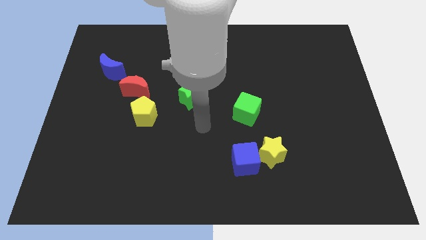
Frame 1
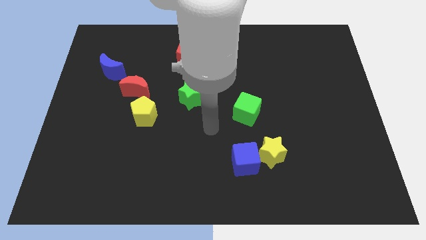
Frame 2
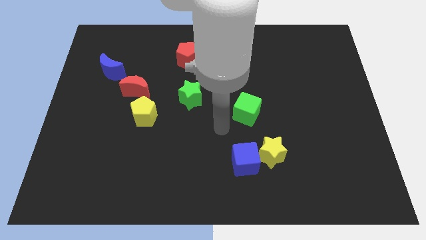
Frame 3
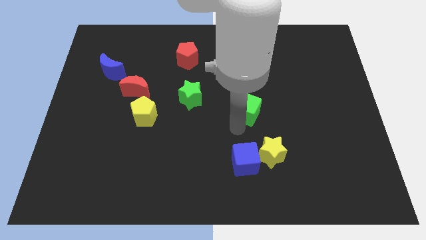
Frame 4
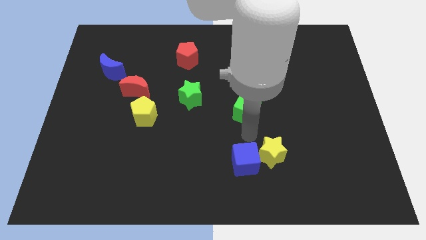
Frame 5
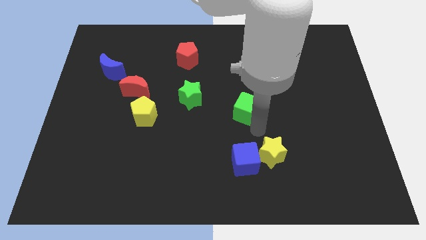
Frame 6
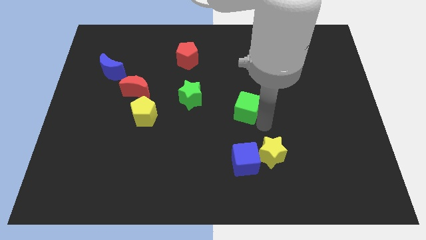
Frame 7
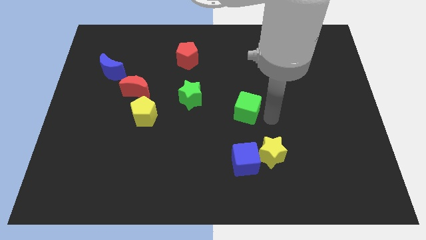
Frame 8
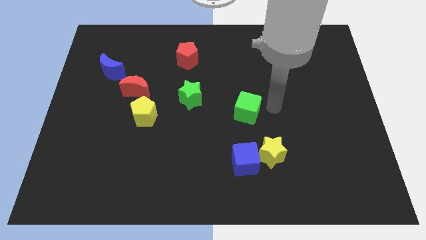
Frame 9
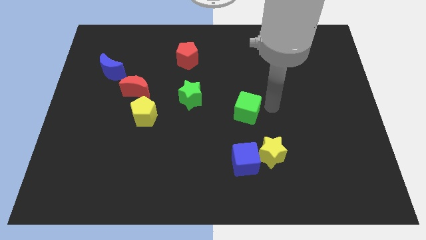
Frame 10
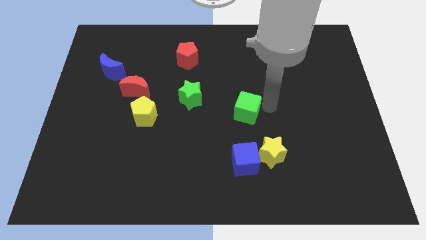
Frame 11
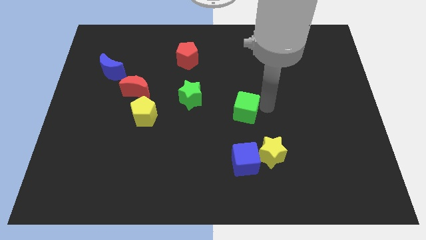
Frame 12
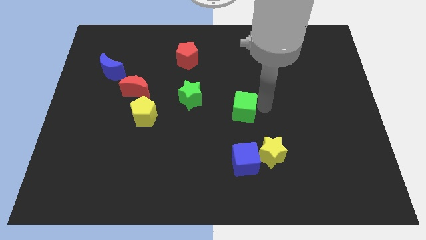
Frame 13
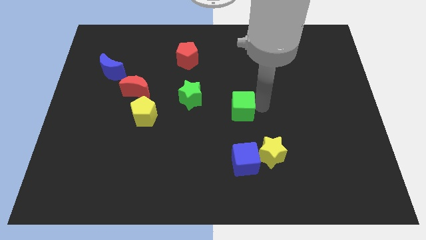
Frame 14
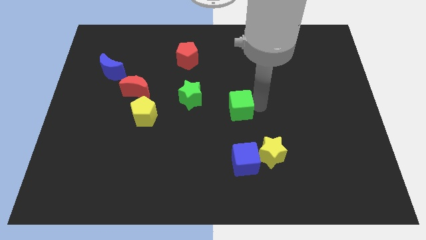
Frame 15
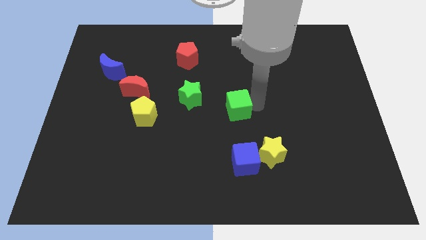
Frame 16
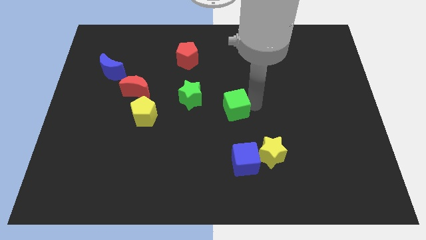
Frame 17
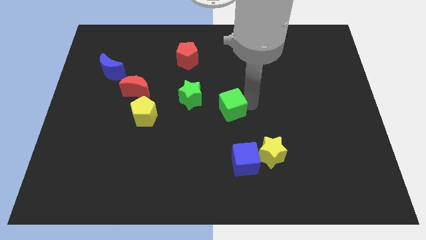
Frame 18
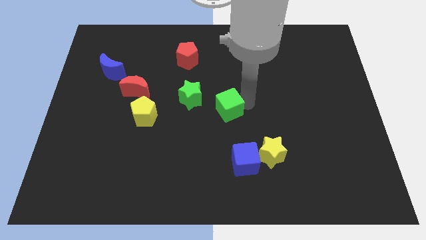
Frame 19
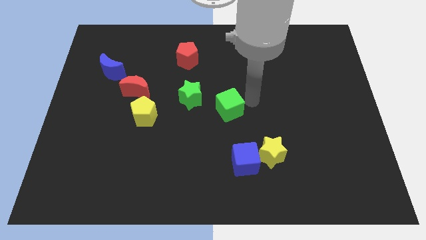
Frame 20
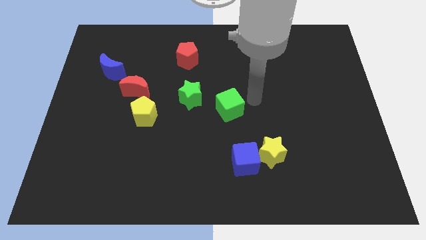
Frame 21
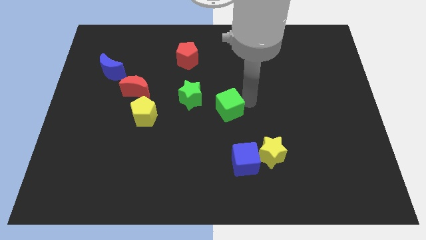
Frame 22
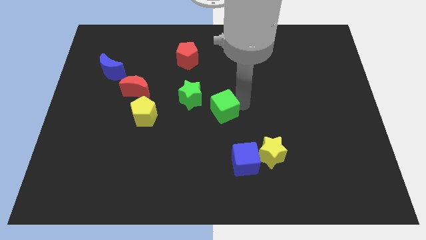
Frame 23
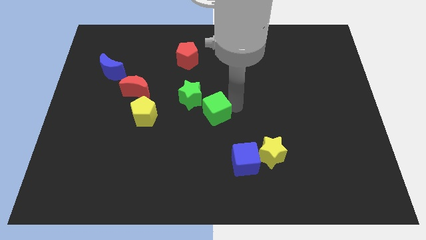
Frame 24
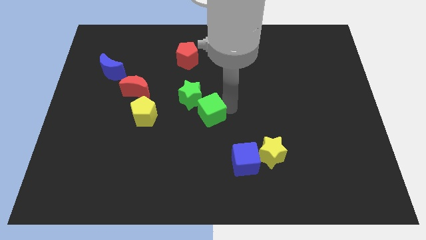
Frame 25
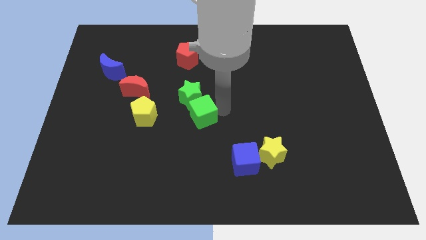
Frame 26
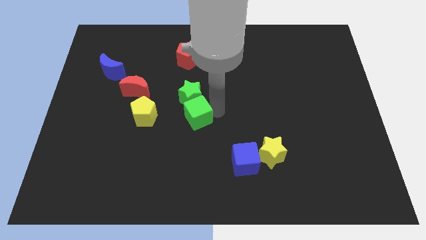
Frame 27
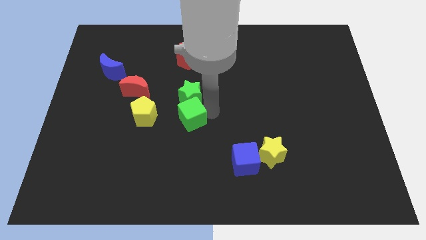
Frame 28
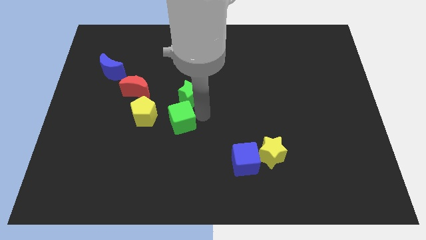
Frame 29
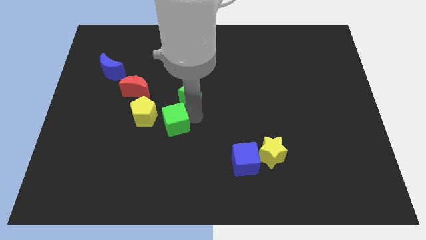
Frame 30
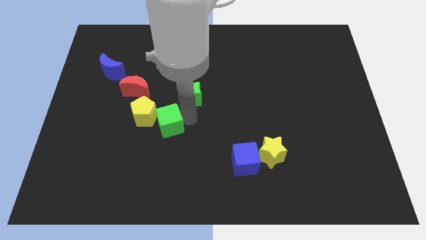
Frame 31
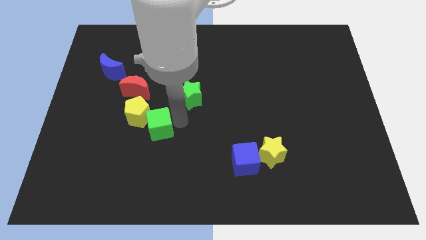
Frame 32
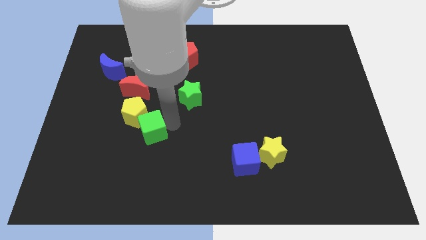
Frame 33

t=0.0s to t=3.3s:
slide the green cube left

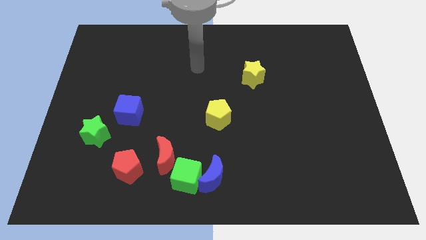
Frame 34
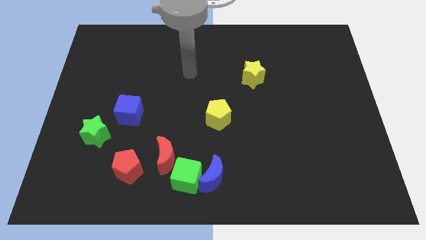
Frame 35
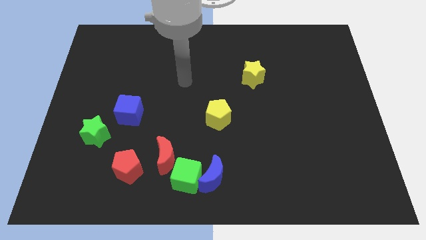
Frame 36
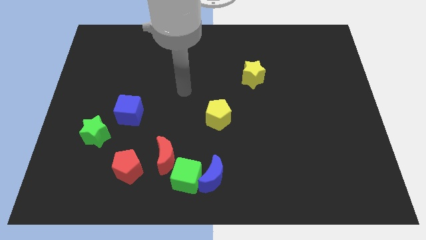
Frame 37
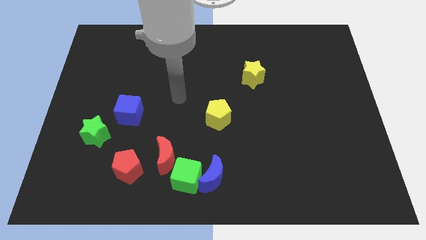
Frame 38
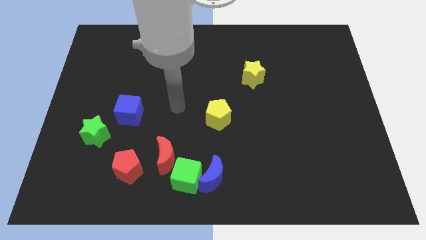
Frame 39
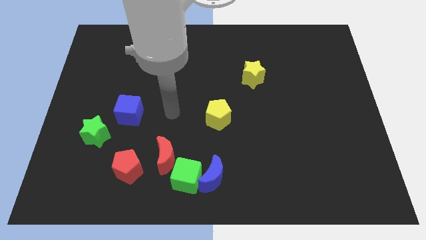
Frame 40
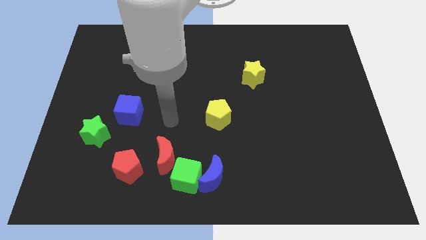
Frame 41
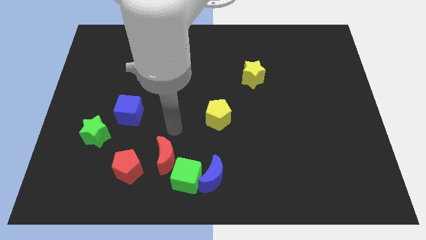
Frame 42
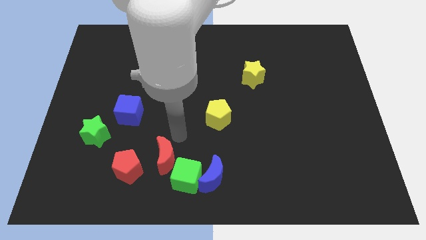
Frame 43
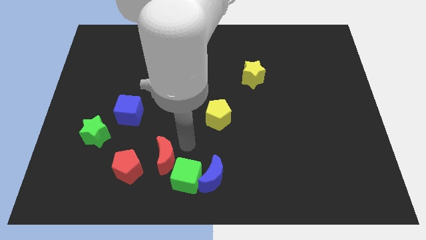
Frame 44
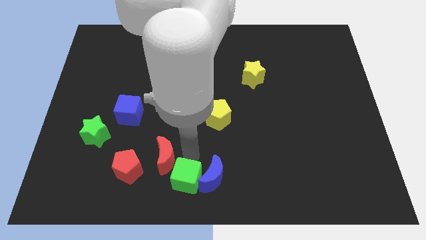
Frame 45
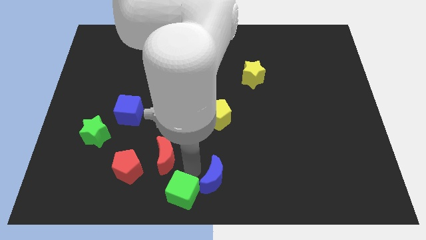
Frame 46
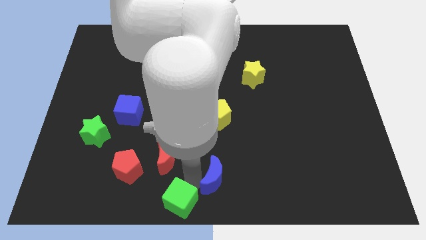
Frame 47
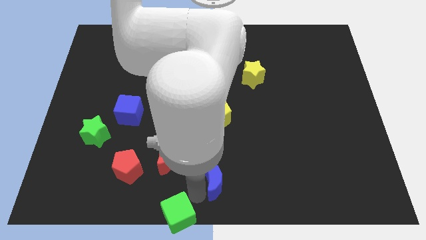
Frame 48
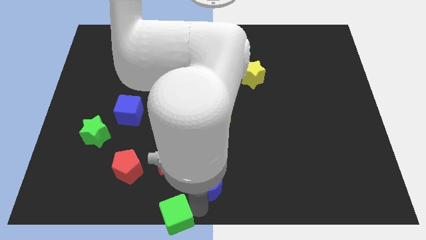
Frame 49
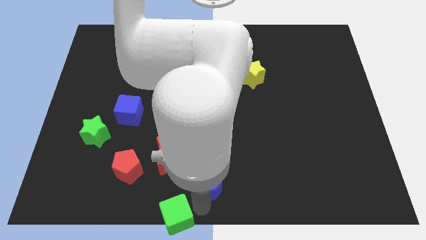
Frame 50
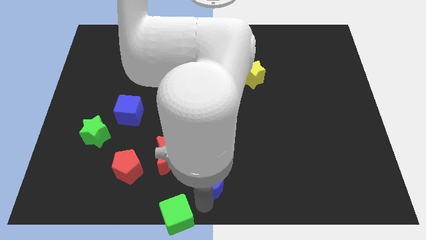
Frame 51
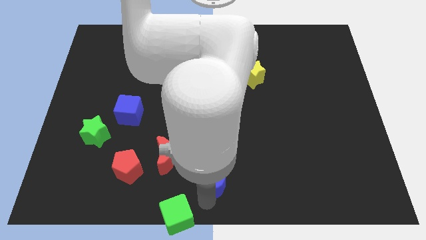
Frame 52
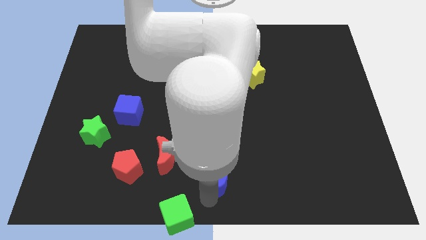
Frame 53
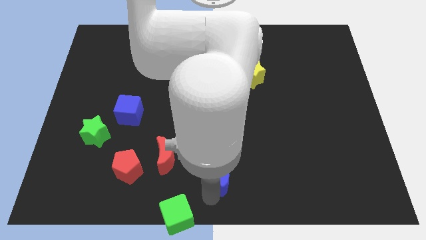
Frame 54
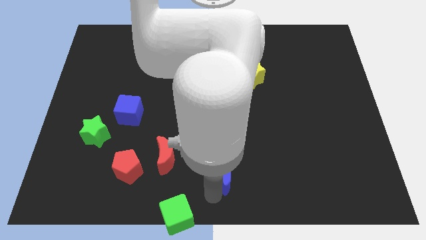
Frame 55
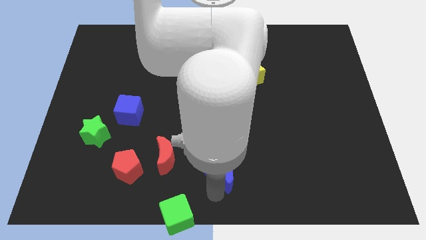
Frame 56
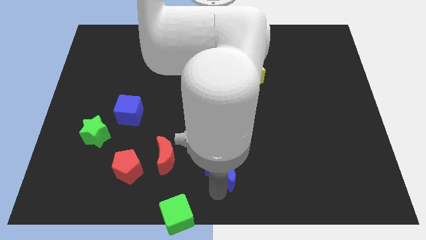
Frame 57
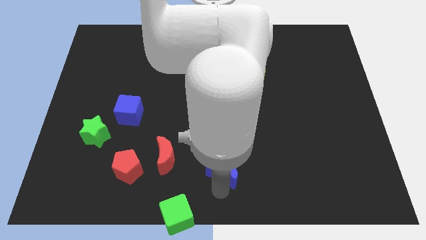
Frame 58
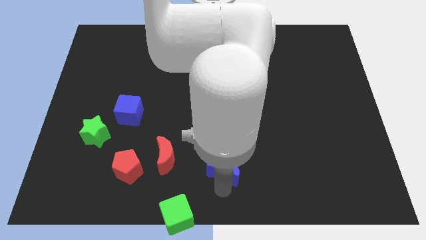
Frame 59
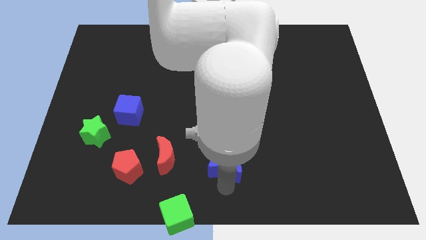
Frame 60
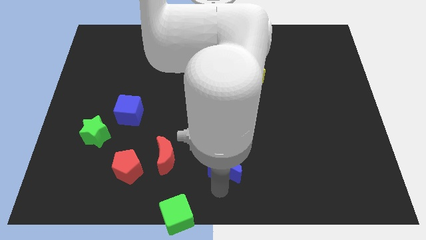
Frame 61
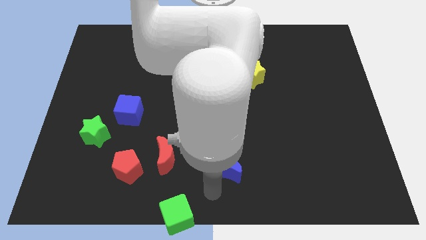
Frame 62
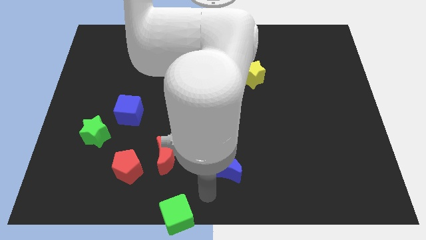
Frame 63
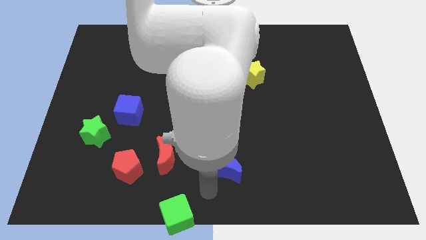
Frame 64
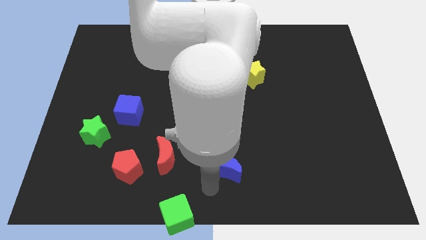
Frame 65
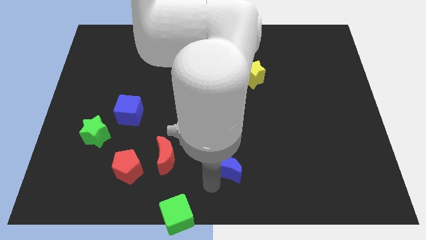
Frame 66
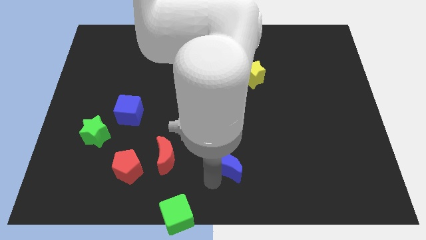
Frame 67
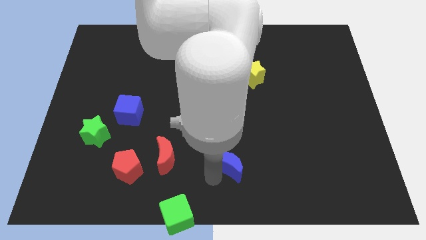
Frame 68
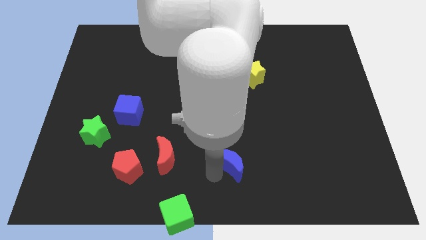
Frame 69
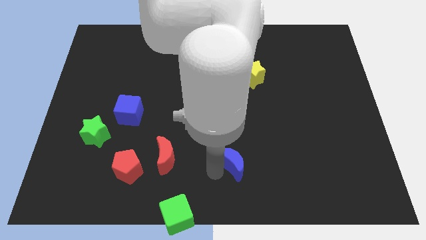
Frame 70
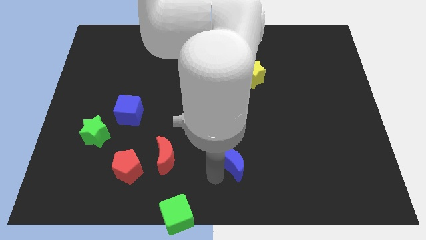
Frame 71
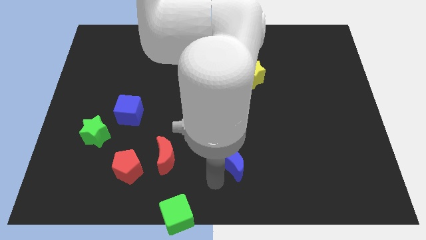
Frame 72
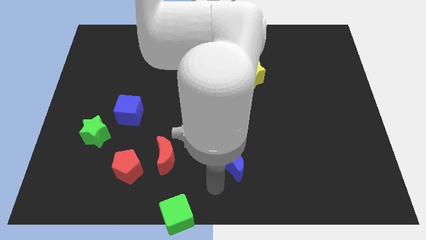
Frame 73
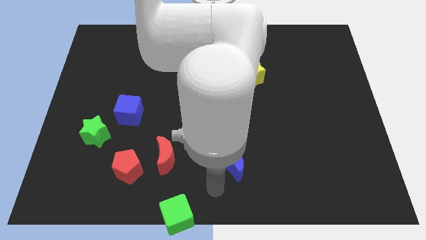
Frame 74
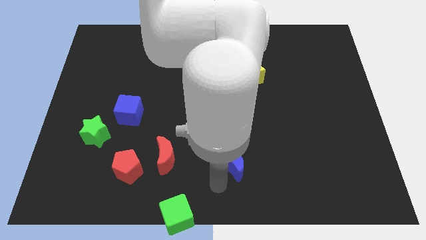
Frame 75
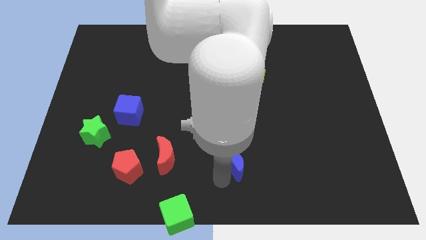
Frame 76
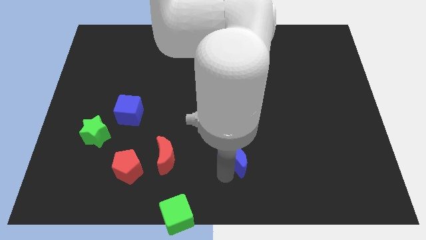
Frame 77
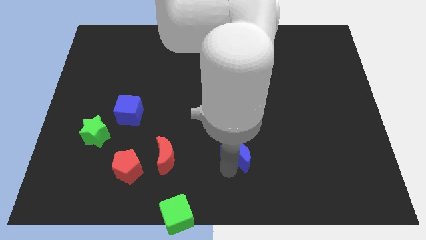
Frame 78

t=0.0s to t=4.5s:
slide the blue moon upwards and to the right diagonally slightly

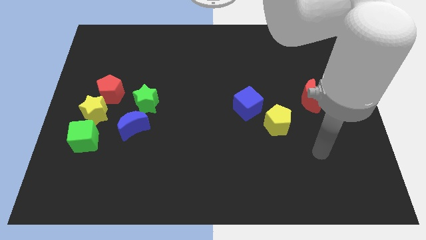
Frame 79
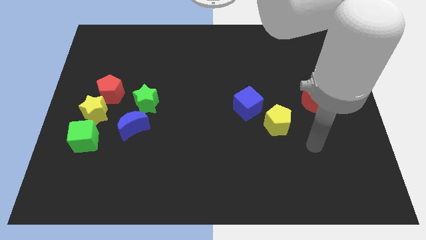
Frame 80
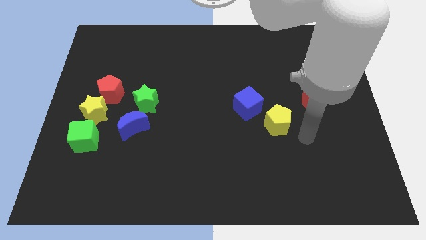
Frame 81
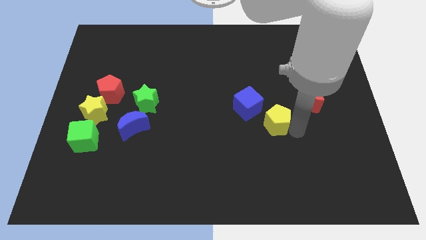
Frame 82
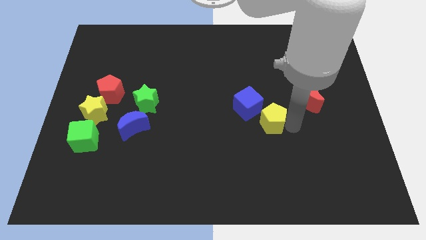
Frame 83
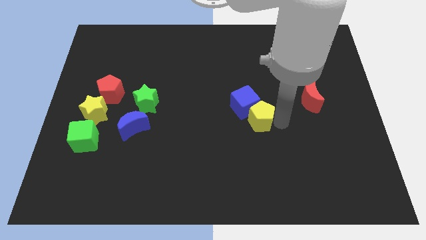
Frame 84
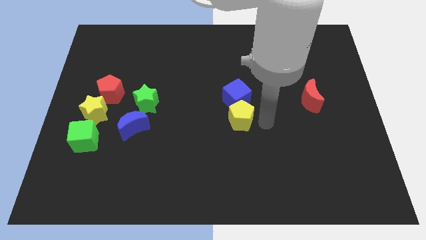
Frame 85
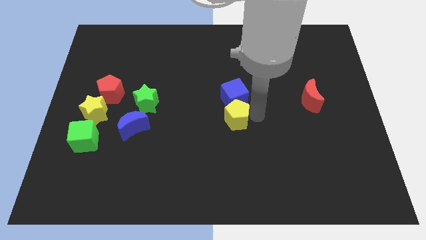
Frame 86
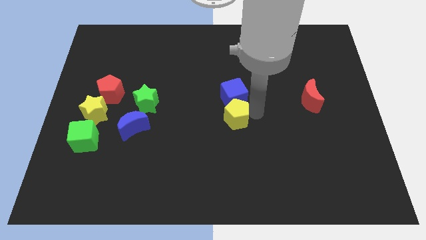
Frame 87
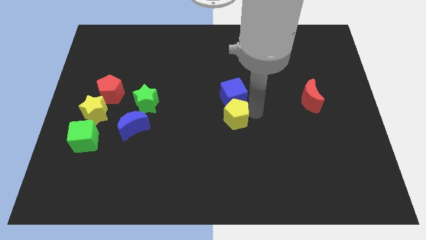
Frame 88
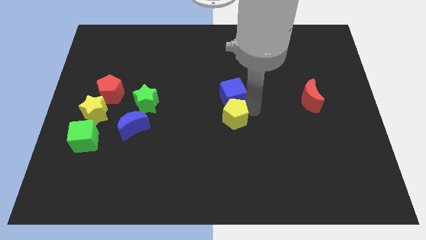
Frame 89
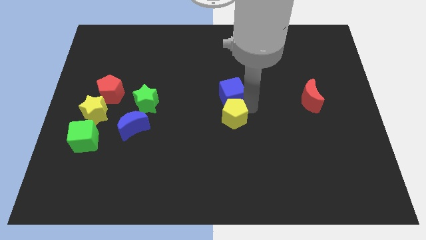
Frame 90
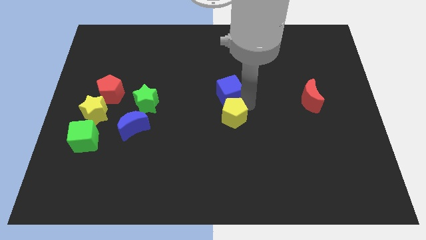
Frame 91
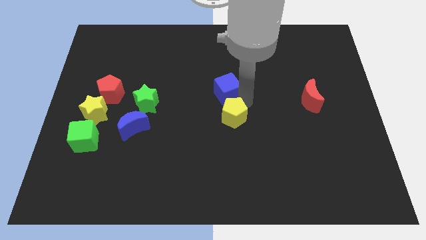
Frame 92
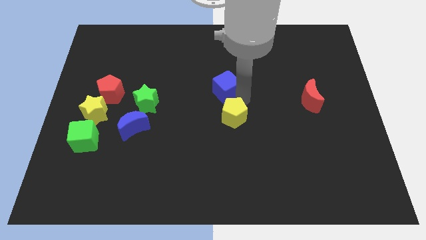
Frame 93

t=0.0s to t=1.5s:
slightly slide the blue cube diagonally up and left
